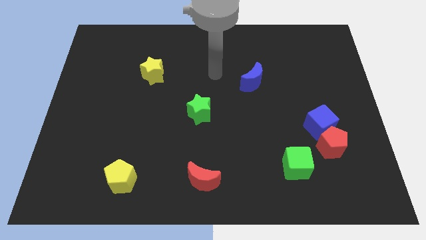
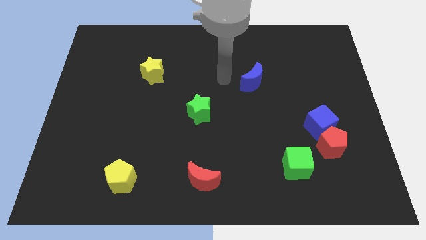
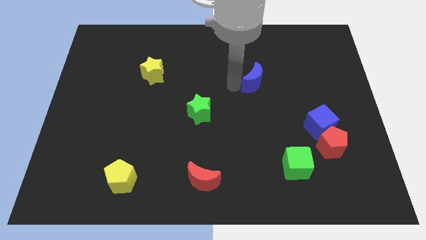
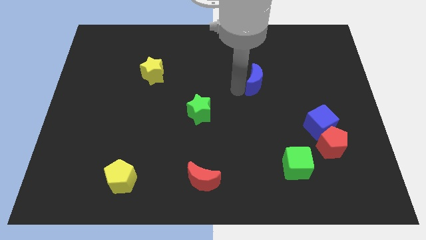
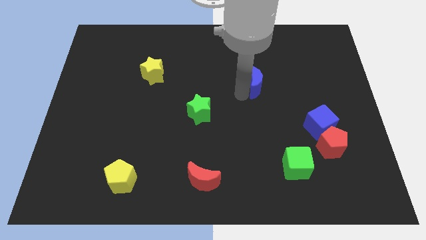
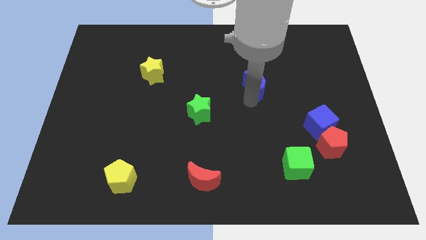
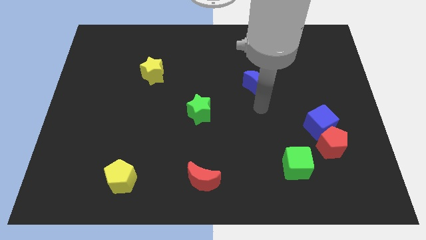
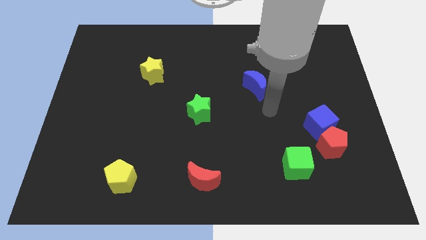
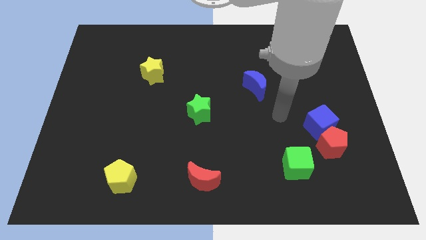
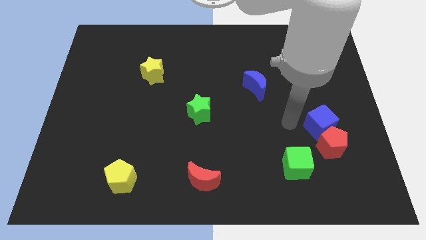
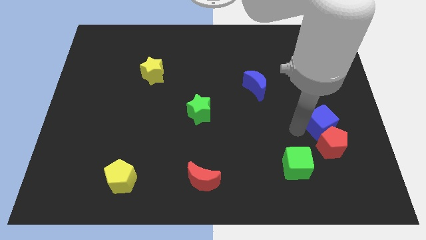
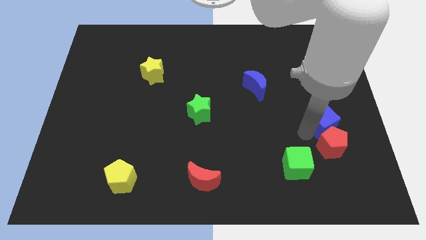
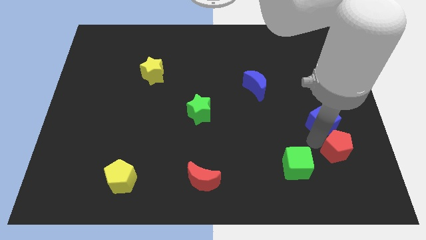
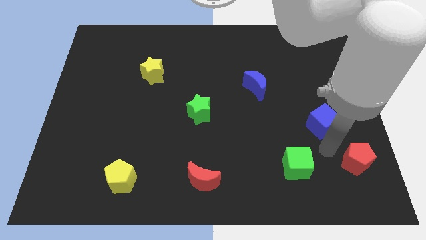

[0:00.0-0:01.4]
separate the blue cube from the red pentagon

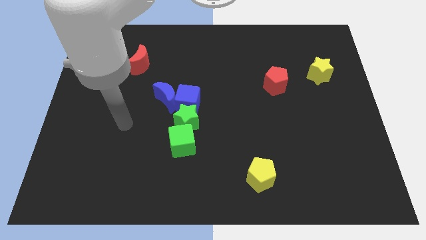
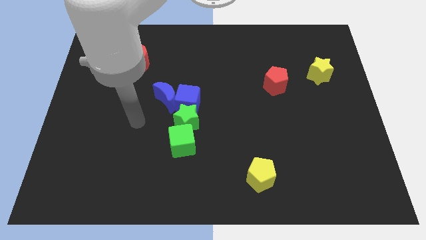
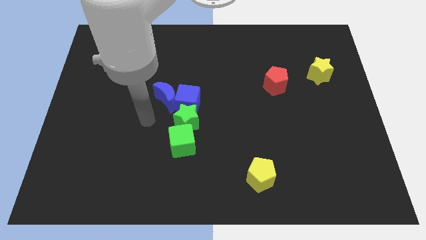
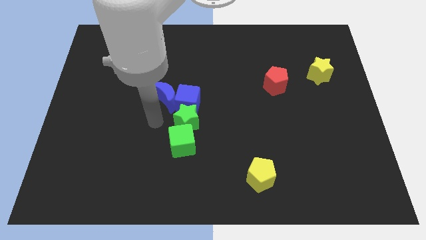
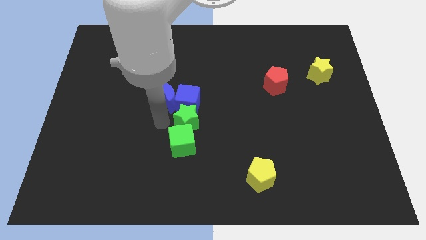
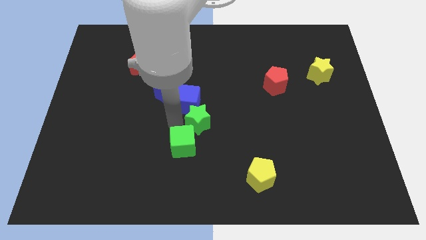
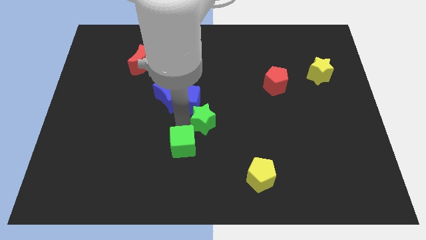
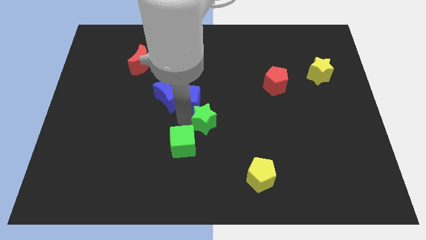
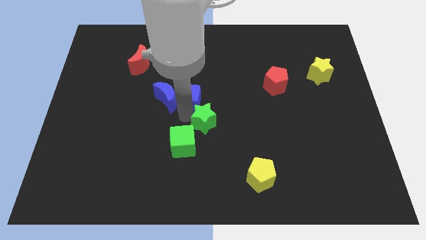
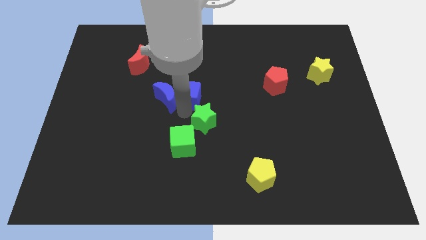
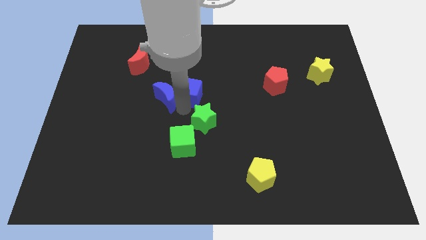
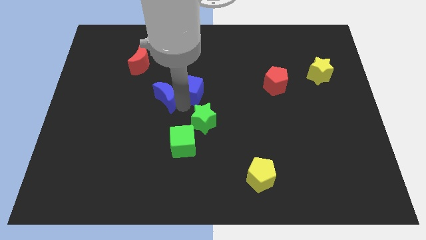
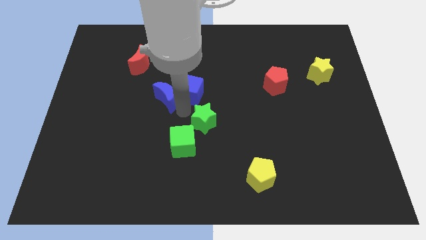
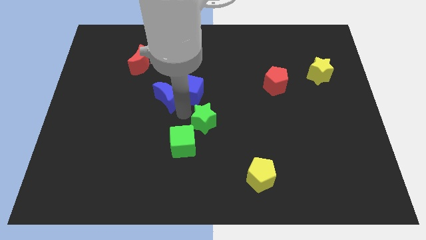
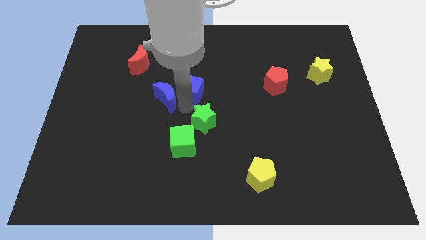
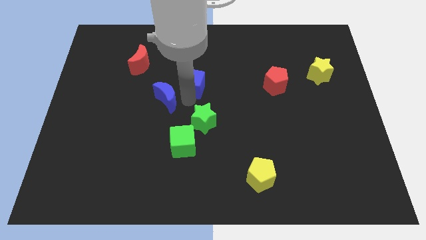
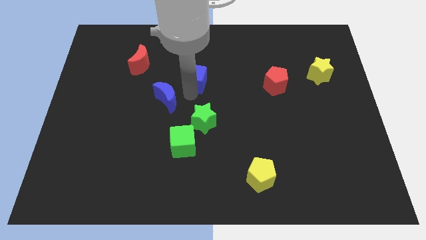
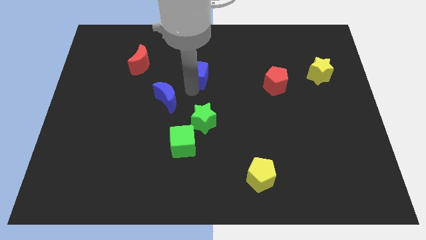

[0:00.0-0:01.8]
separate the blue cube from the blue moon and green star

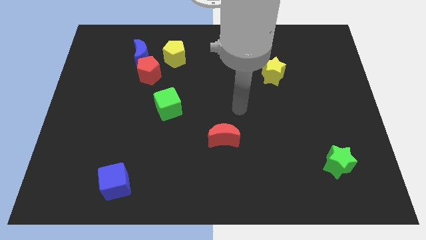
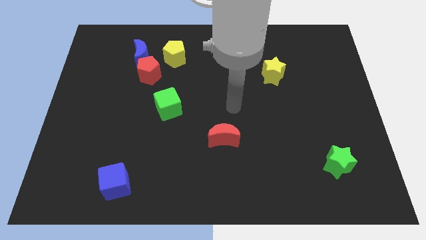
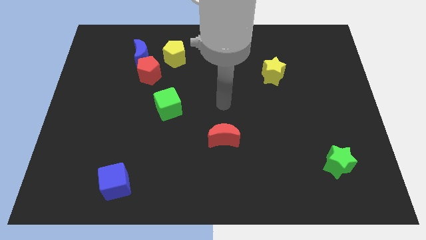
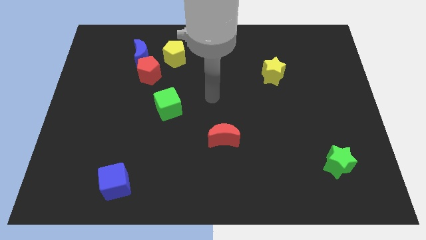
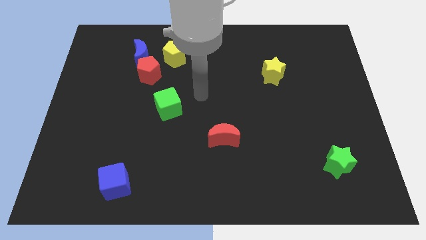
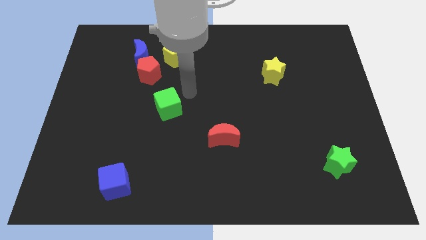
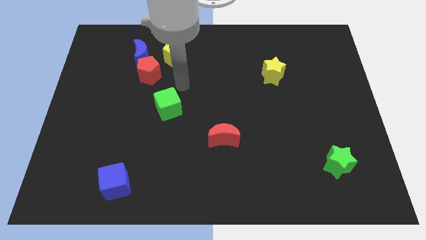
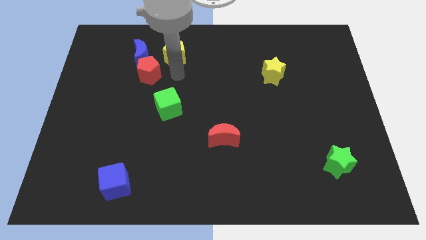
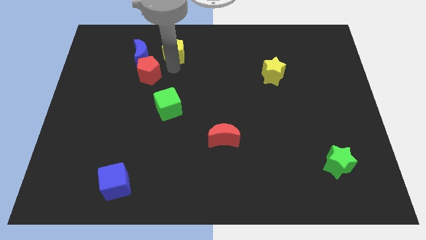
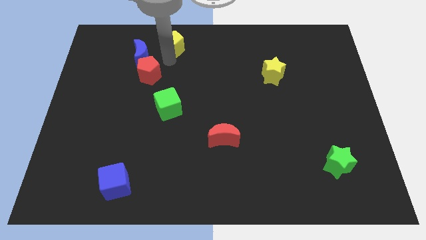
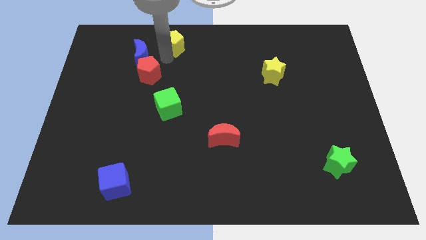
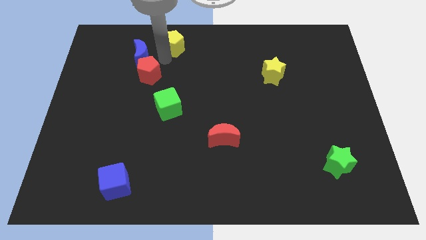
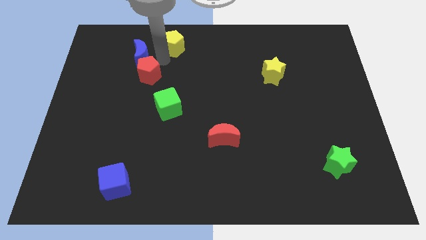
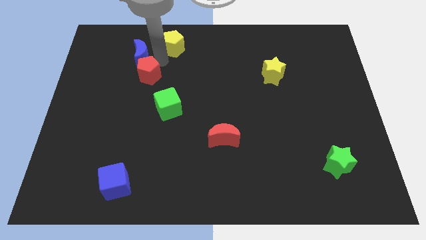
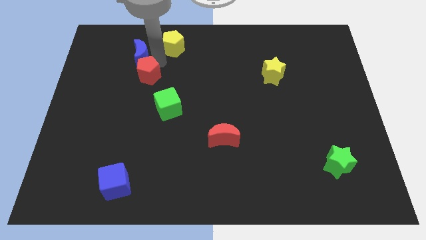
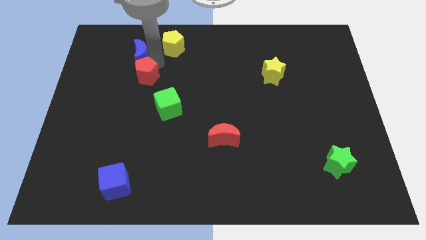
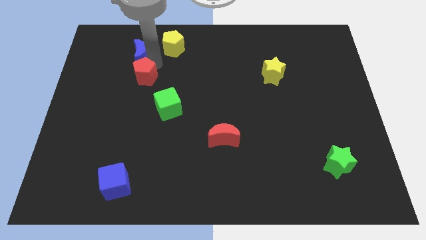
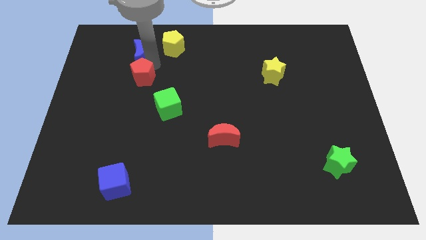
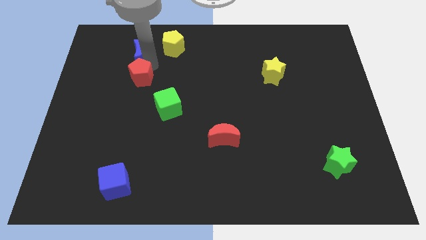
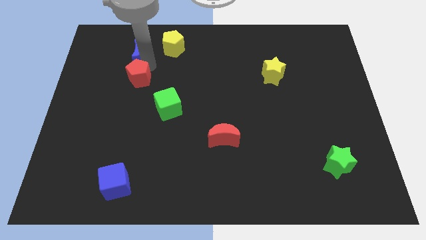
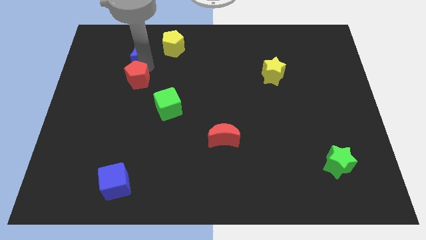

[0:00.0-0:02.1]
separate the red pentagon from the blue moon and yellow pentagon

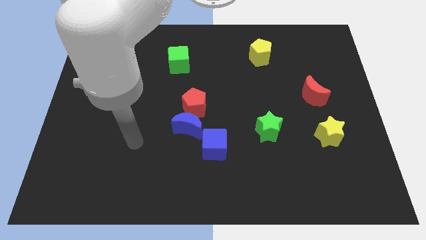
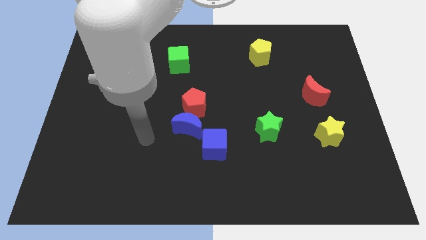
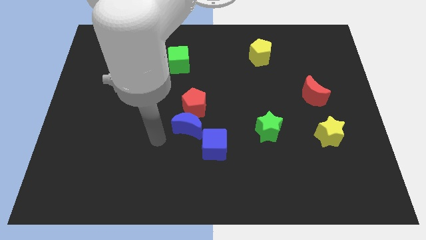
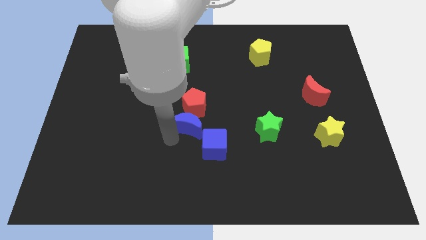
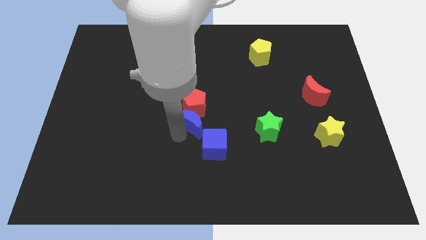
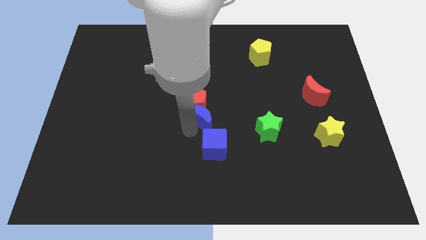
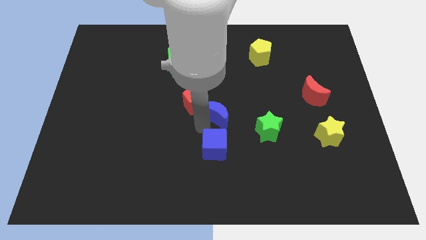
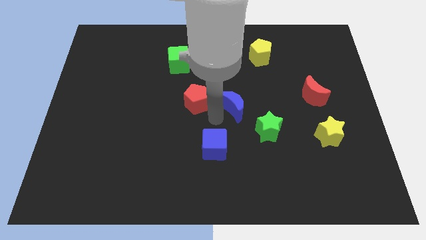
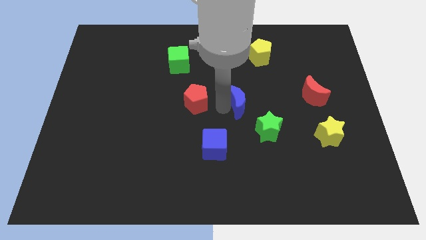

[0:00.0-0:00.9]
separate the red pentagon from the blue moon

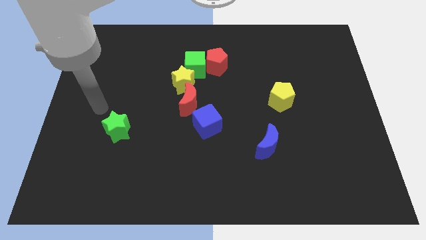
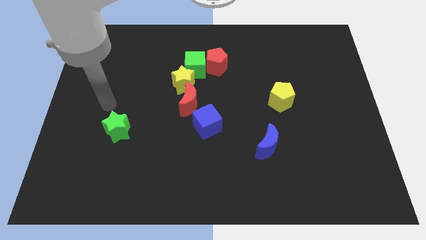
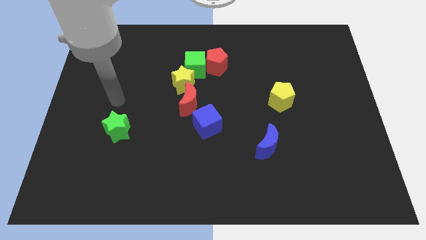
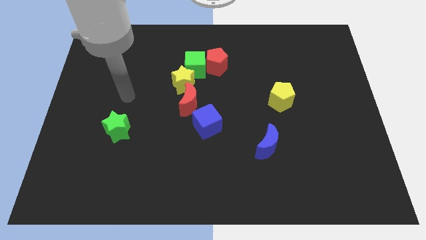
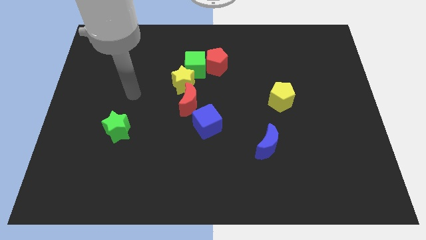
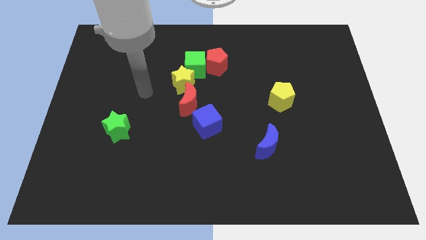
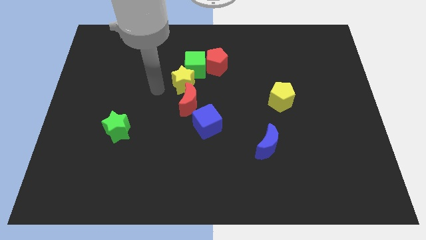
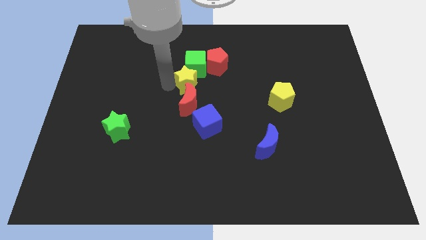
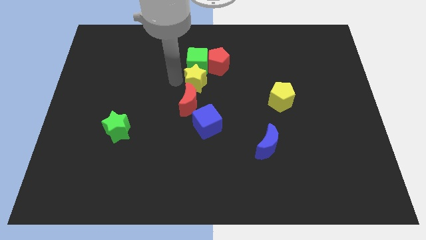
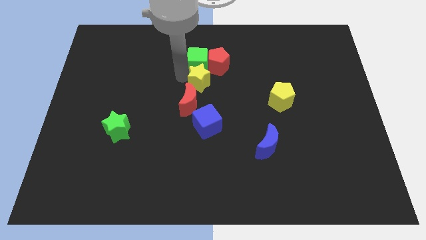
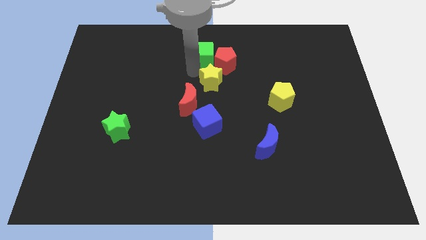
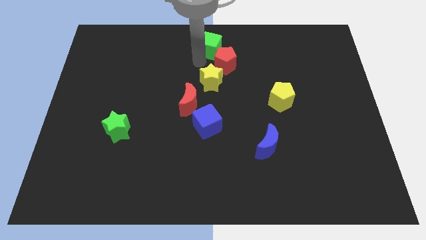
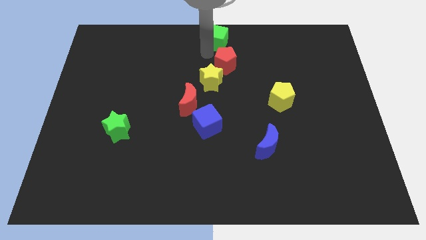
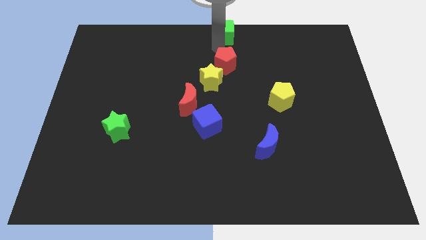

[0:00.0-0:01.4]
pull the red pentagon apart from the green cube

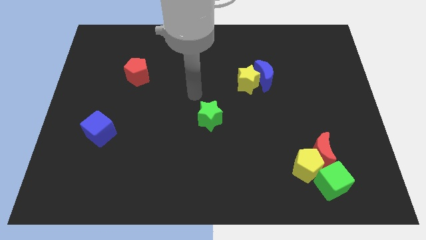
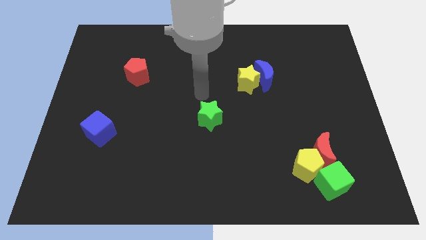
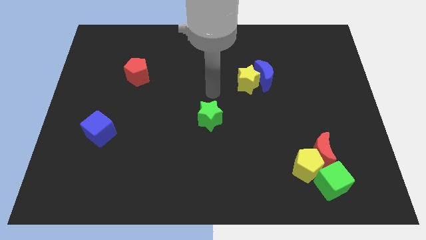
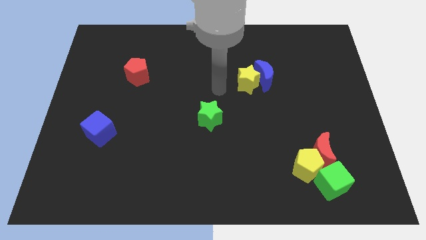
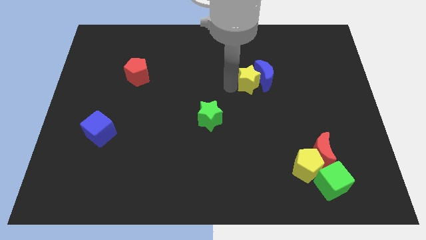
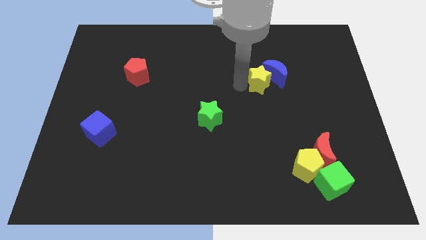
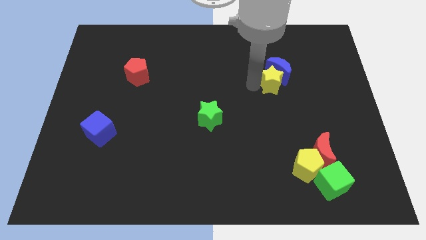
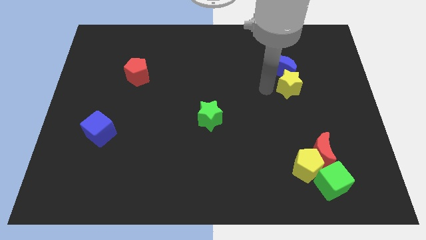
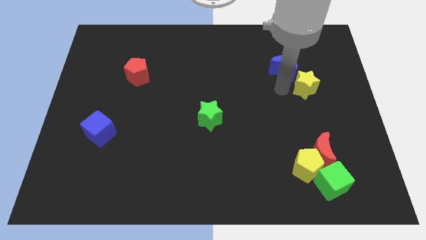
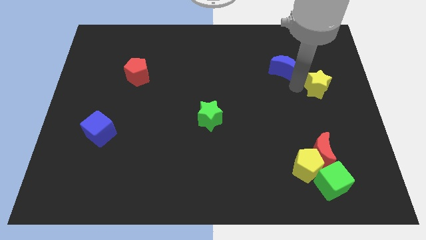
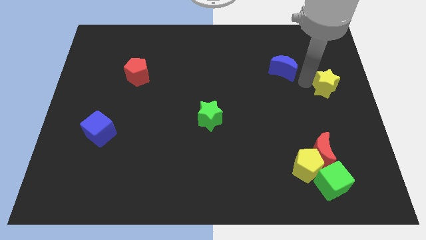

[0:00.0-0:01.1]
pull the blue moon apart from the yellow star

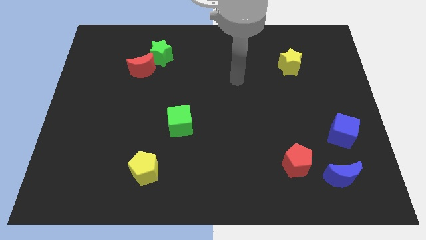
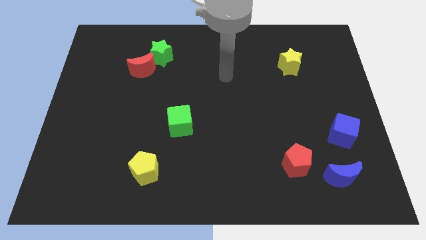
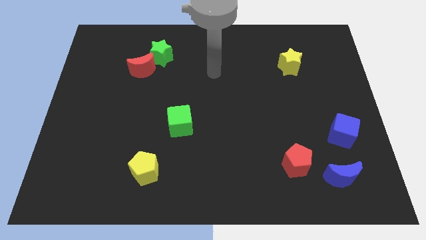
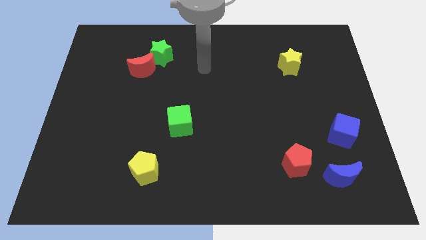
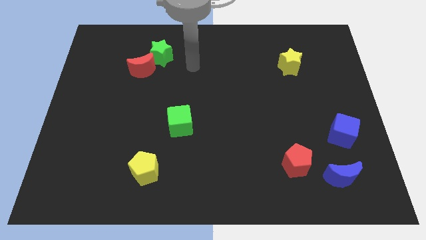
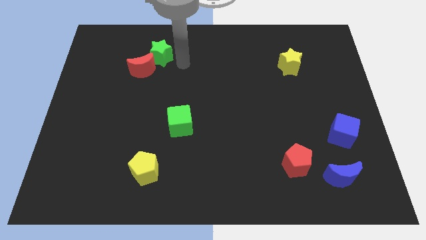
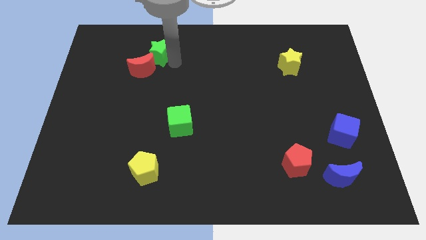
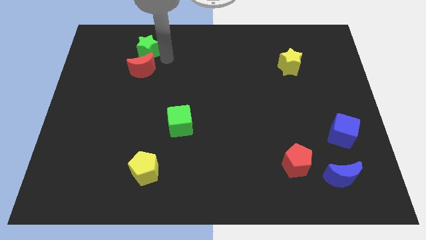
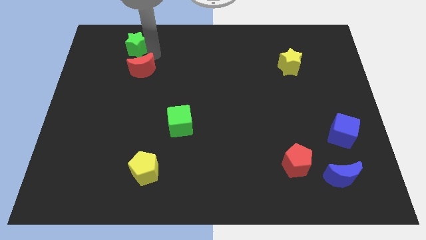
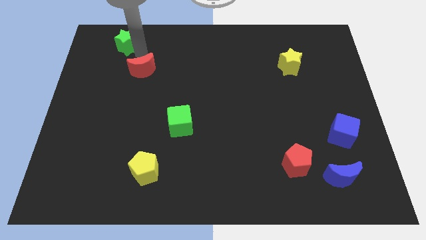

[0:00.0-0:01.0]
separate the red moon from the green star
